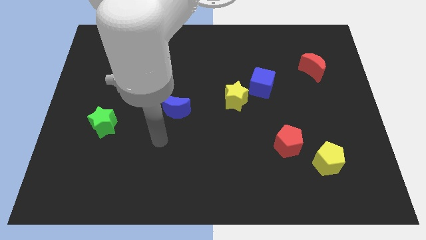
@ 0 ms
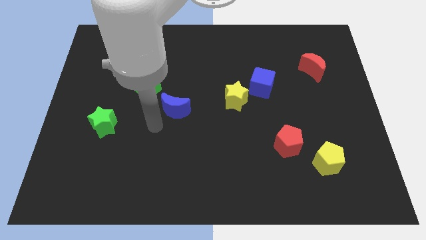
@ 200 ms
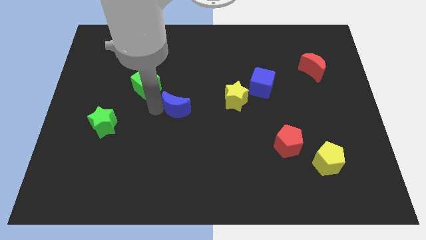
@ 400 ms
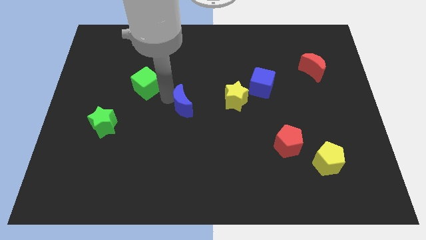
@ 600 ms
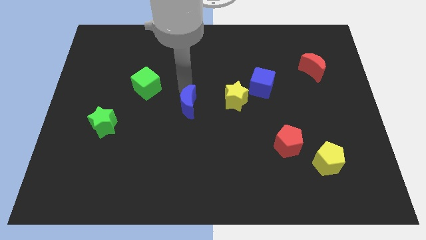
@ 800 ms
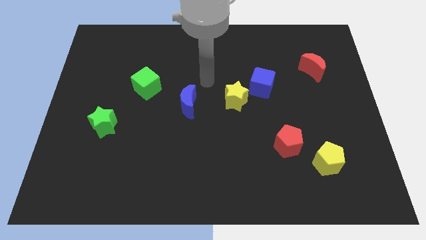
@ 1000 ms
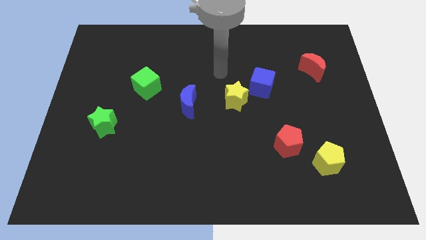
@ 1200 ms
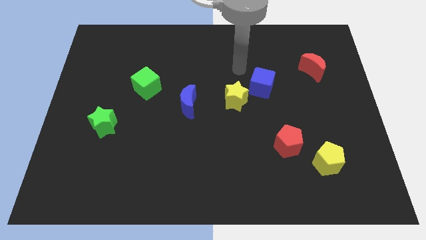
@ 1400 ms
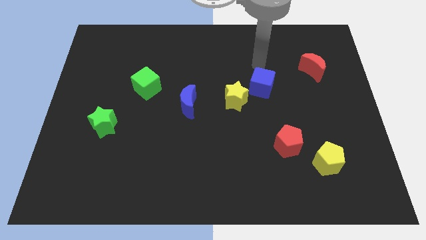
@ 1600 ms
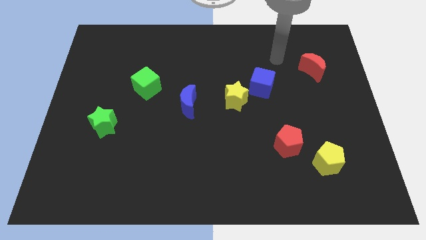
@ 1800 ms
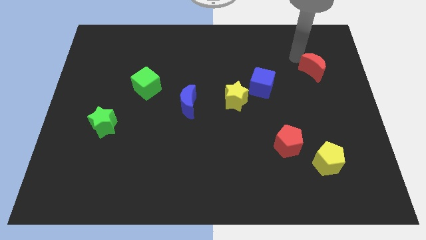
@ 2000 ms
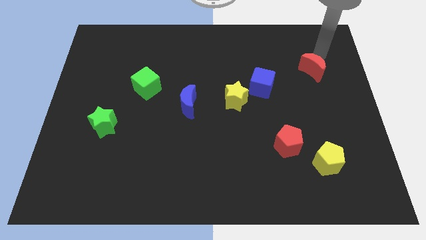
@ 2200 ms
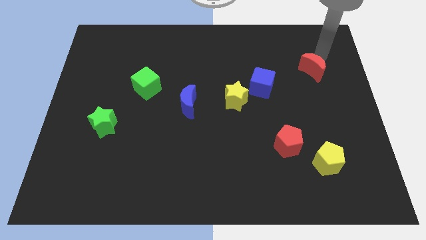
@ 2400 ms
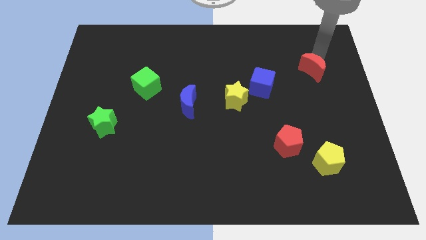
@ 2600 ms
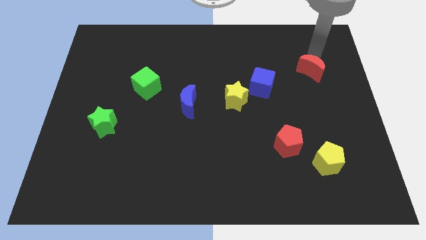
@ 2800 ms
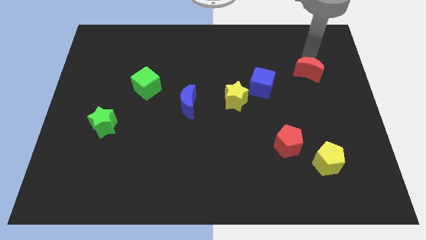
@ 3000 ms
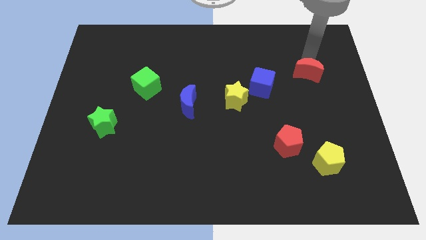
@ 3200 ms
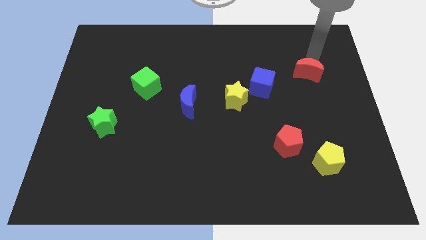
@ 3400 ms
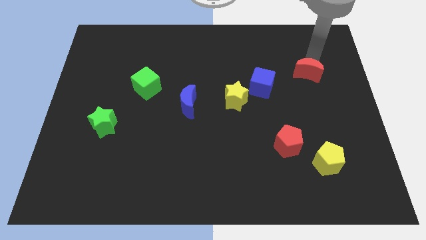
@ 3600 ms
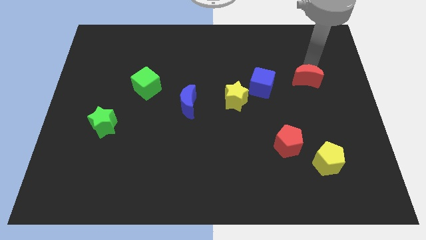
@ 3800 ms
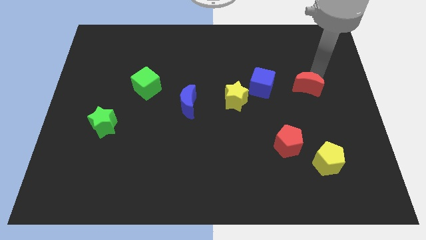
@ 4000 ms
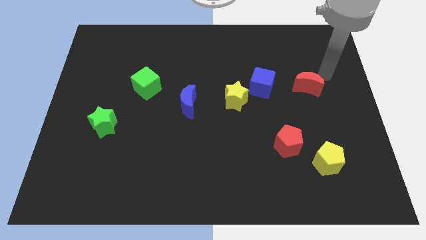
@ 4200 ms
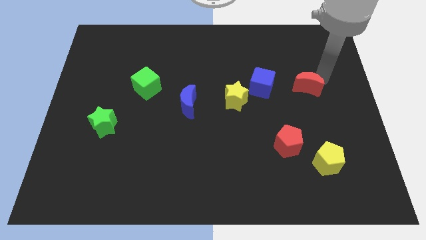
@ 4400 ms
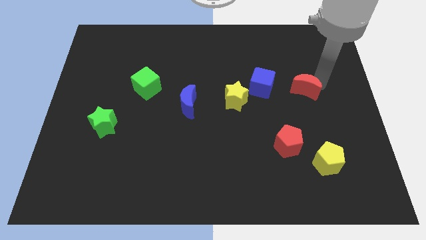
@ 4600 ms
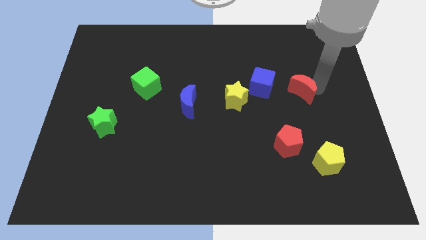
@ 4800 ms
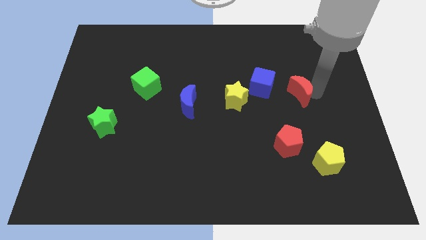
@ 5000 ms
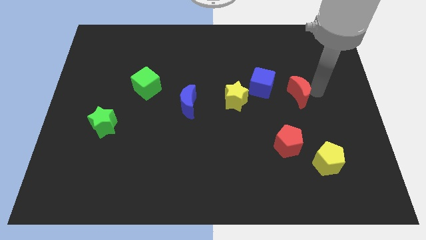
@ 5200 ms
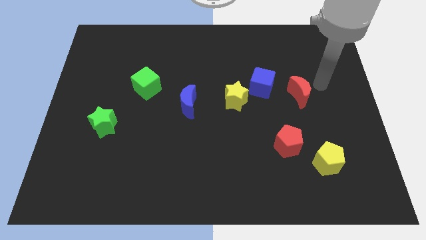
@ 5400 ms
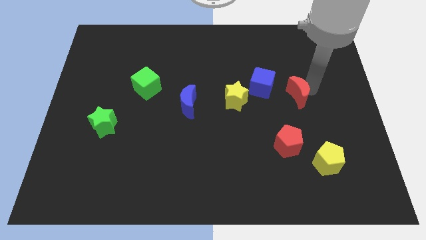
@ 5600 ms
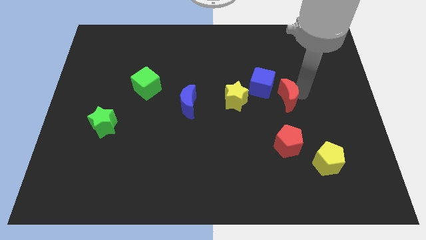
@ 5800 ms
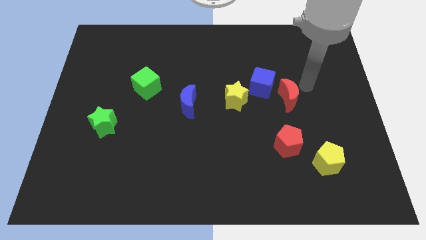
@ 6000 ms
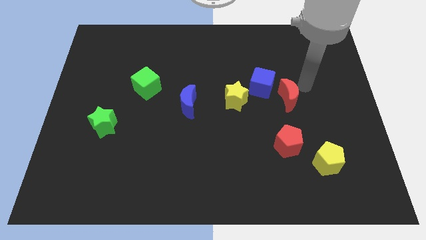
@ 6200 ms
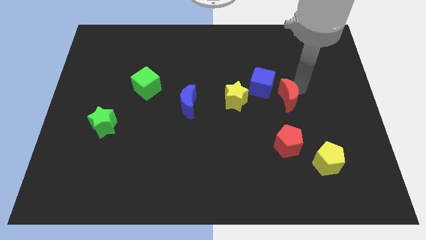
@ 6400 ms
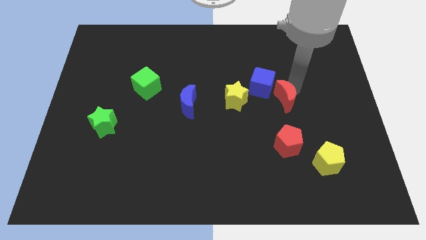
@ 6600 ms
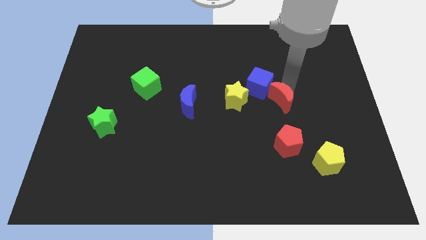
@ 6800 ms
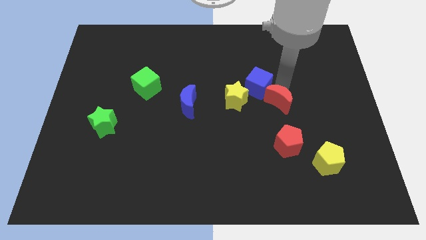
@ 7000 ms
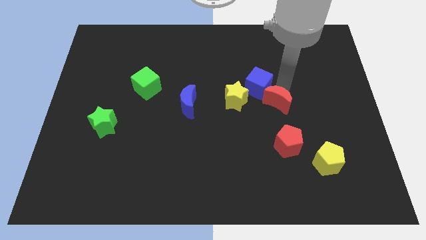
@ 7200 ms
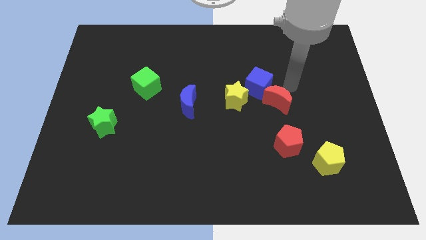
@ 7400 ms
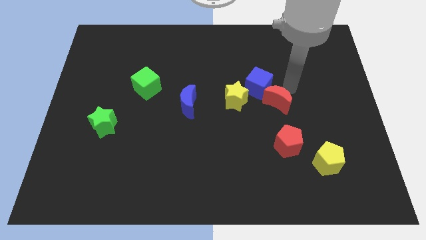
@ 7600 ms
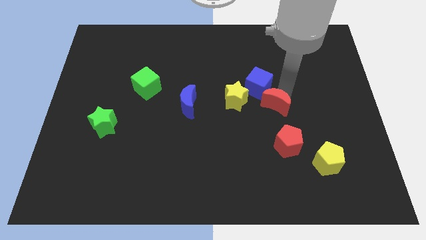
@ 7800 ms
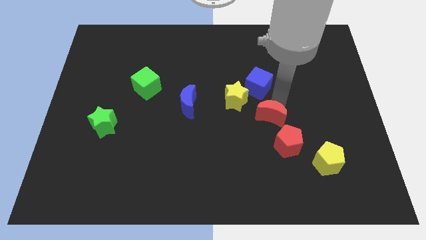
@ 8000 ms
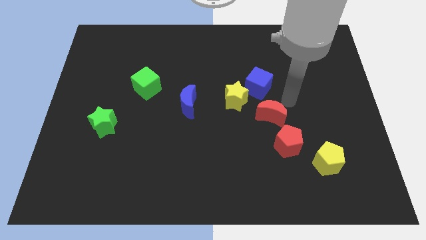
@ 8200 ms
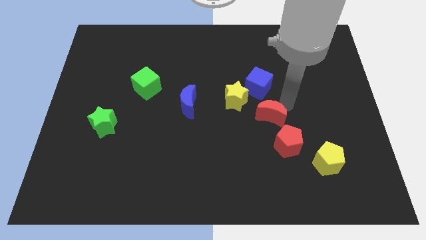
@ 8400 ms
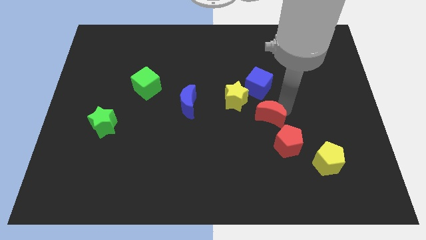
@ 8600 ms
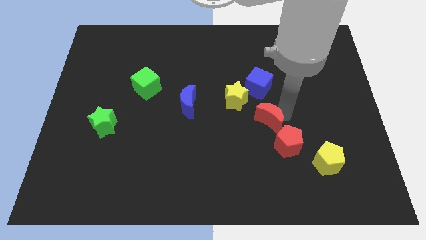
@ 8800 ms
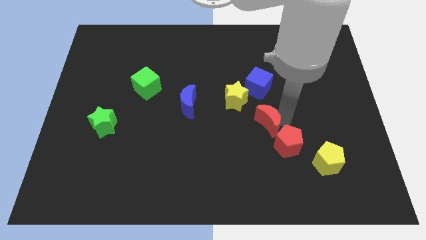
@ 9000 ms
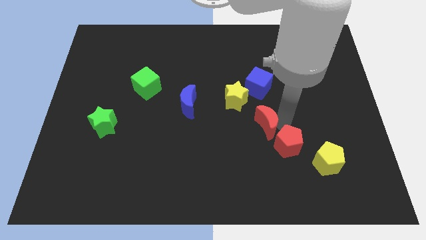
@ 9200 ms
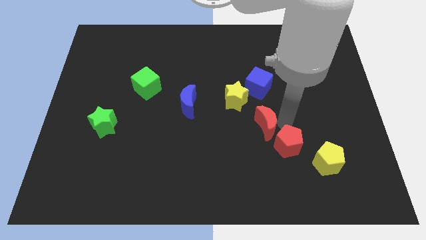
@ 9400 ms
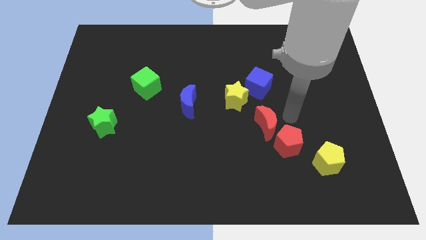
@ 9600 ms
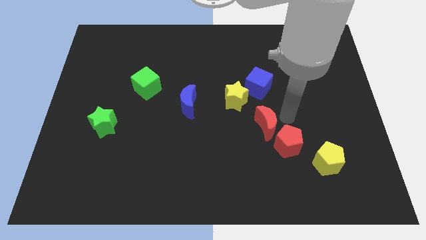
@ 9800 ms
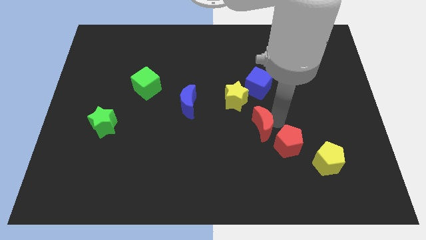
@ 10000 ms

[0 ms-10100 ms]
push the red moon to the left of the red pentagon

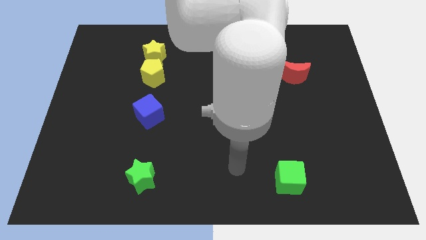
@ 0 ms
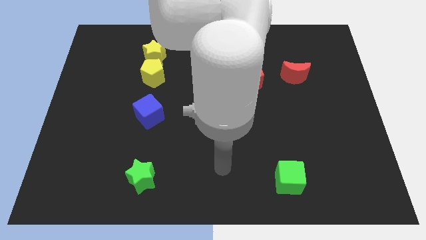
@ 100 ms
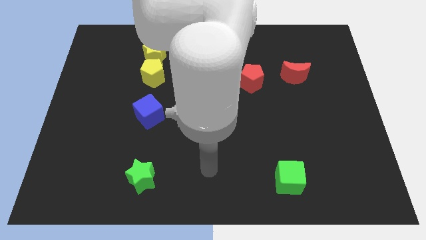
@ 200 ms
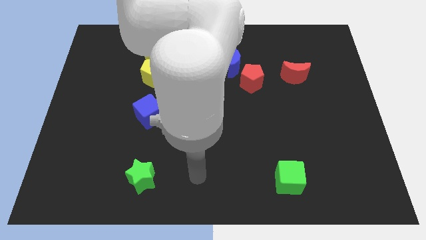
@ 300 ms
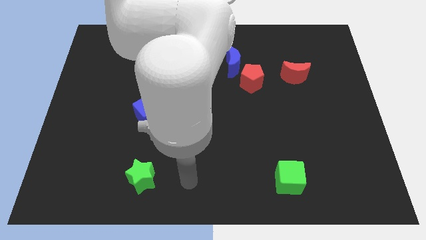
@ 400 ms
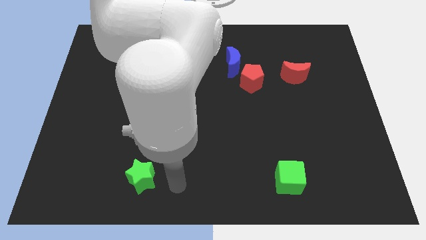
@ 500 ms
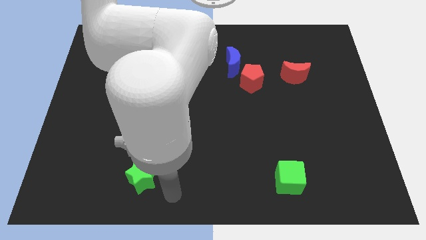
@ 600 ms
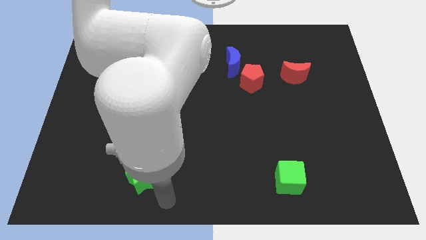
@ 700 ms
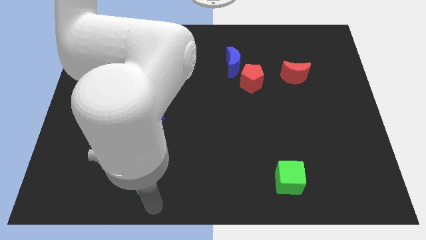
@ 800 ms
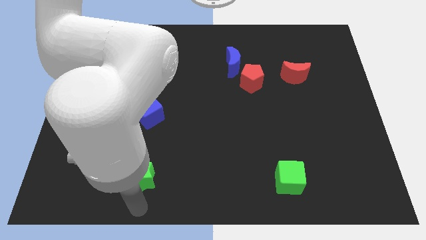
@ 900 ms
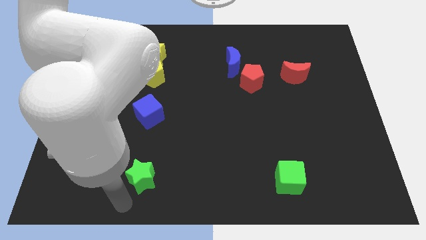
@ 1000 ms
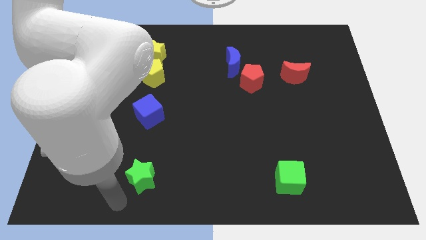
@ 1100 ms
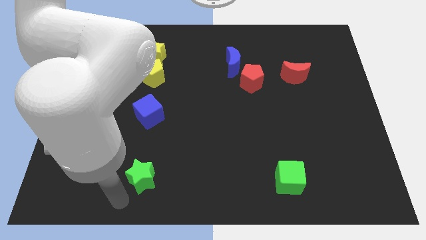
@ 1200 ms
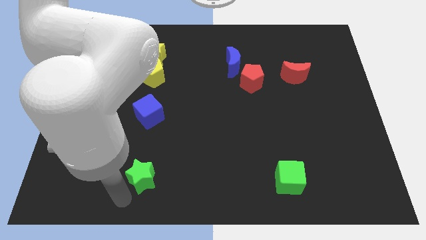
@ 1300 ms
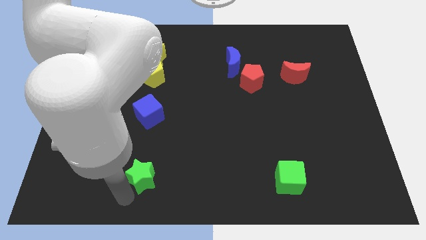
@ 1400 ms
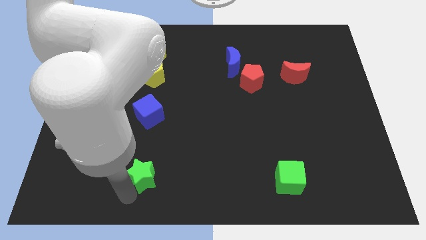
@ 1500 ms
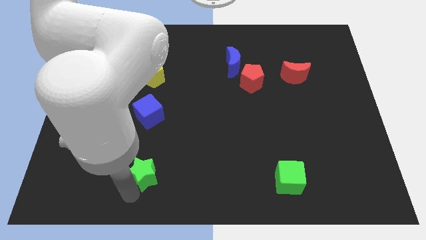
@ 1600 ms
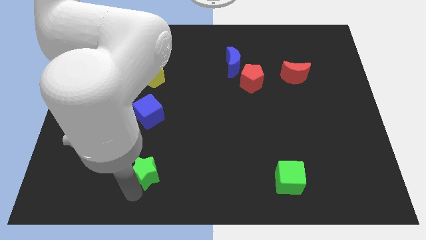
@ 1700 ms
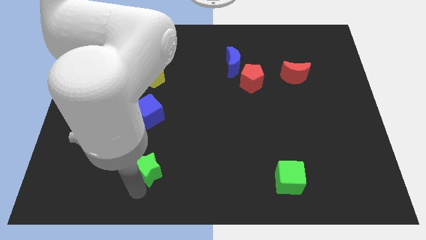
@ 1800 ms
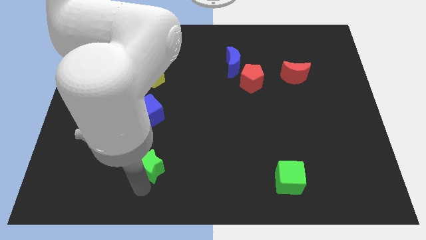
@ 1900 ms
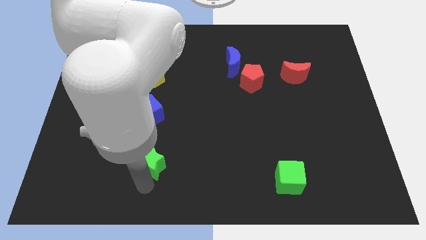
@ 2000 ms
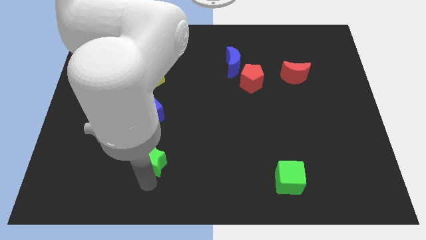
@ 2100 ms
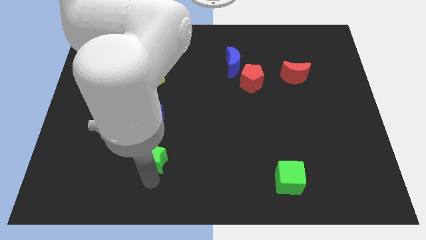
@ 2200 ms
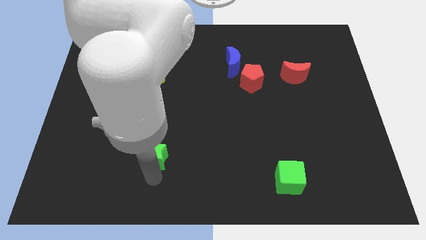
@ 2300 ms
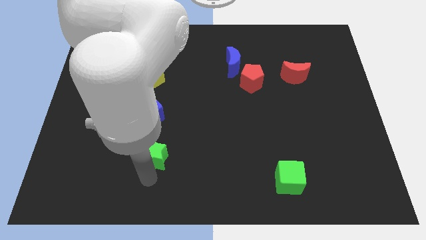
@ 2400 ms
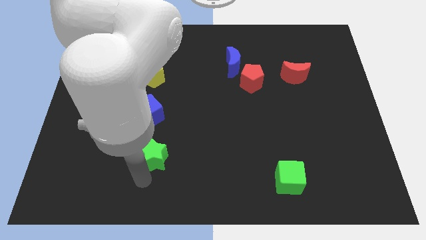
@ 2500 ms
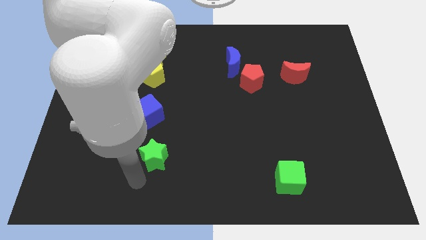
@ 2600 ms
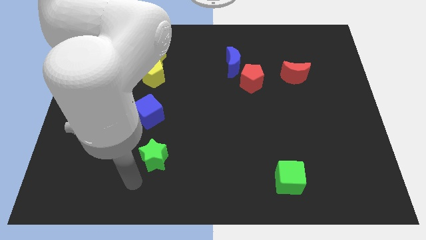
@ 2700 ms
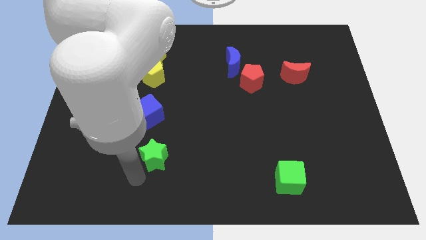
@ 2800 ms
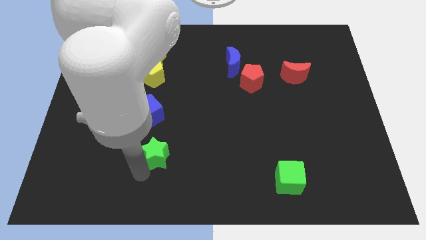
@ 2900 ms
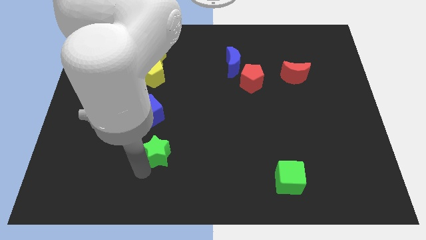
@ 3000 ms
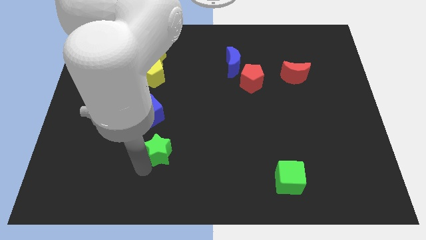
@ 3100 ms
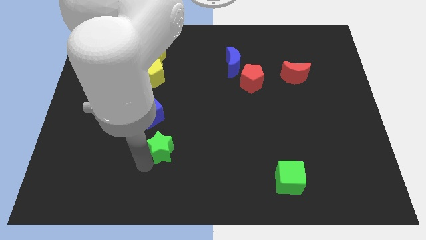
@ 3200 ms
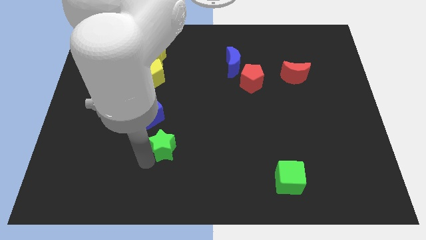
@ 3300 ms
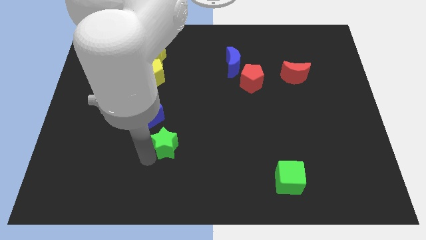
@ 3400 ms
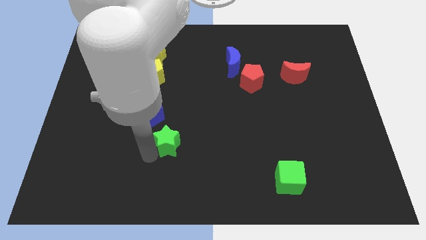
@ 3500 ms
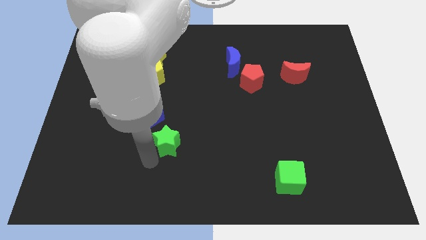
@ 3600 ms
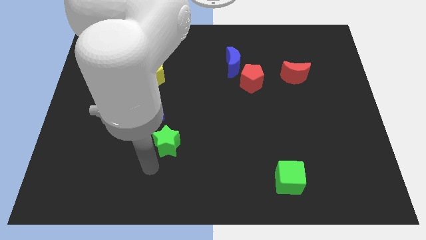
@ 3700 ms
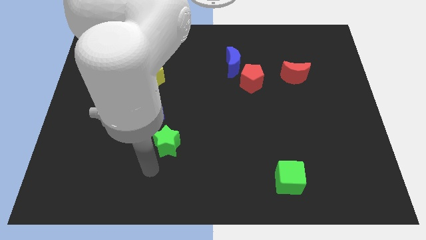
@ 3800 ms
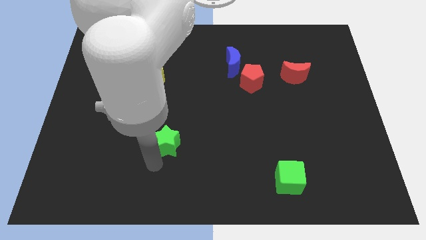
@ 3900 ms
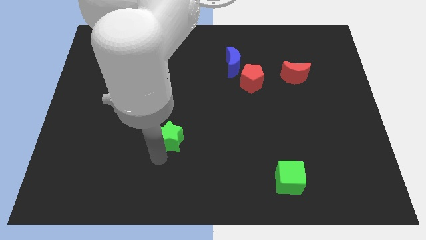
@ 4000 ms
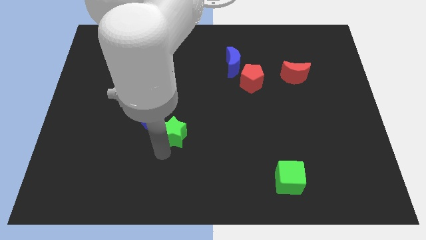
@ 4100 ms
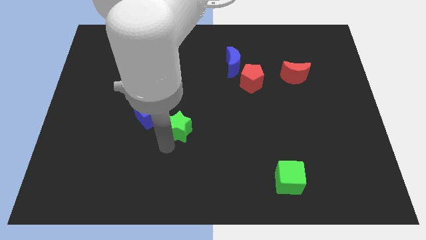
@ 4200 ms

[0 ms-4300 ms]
push the green star to the right side of the blue cube
